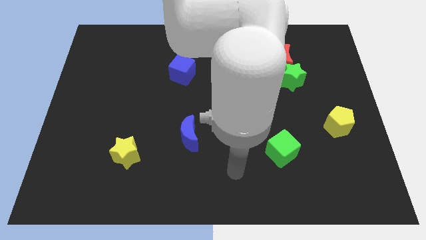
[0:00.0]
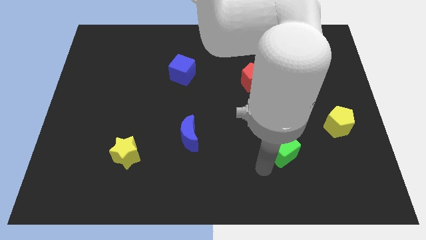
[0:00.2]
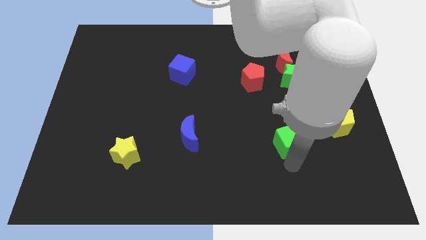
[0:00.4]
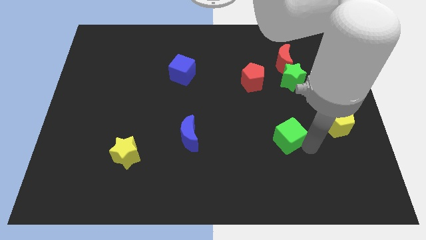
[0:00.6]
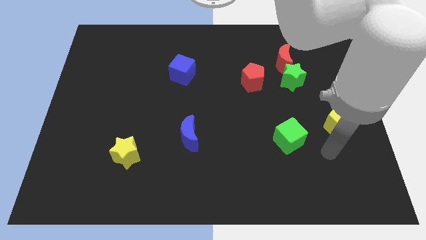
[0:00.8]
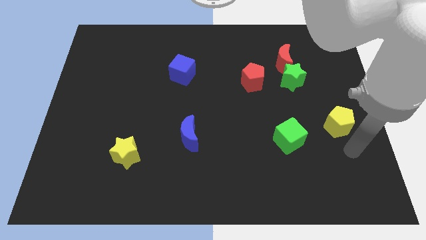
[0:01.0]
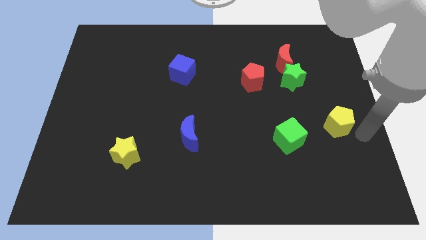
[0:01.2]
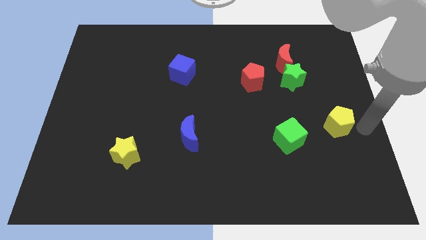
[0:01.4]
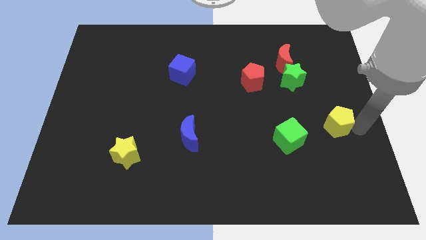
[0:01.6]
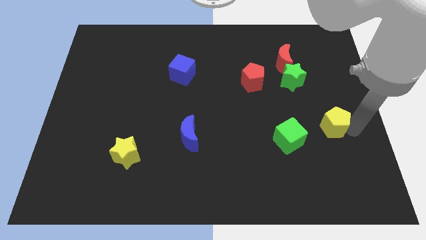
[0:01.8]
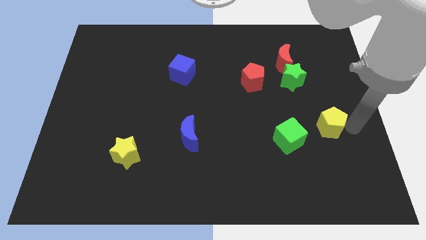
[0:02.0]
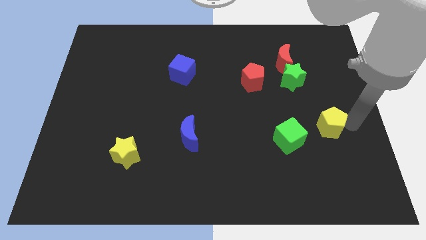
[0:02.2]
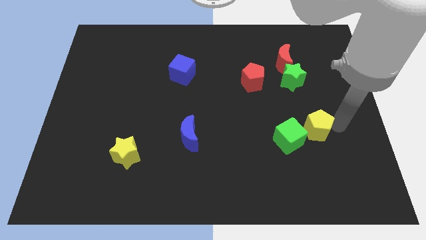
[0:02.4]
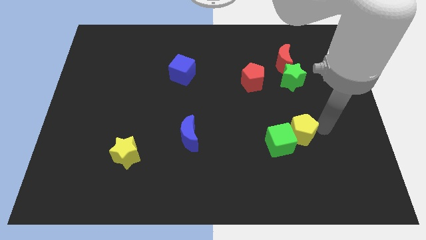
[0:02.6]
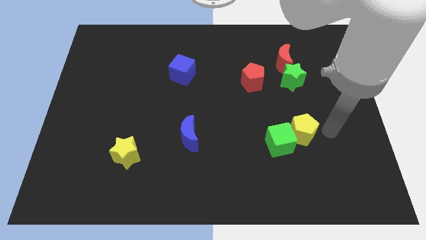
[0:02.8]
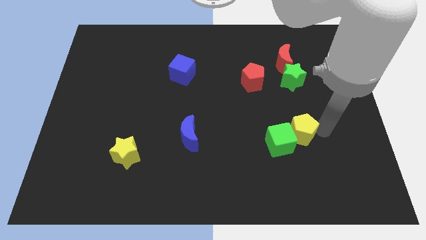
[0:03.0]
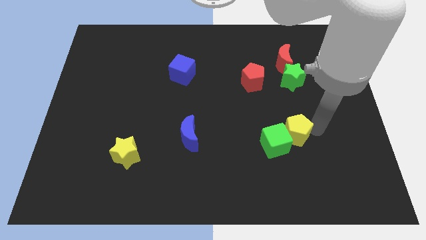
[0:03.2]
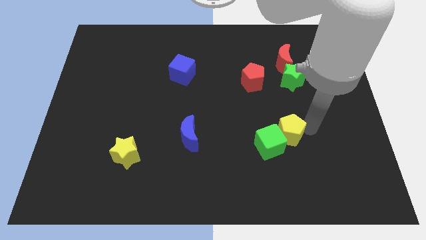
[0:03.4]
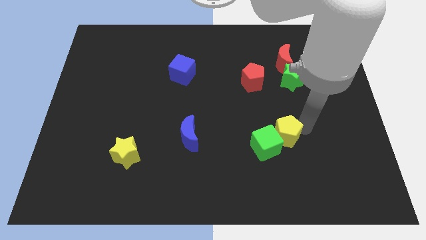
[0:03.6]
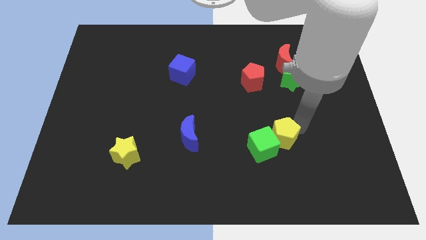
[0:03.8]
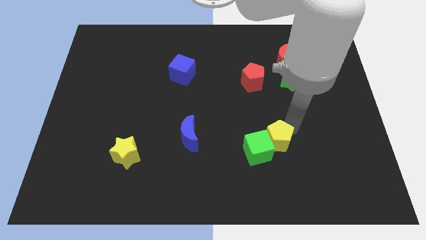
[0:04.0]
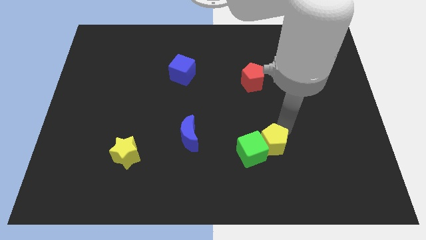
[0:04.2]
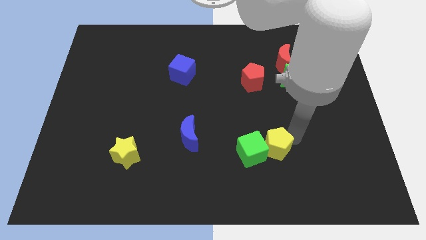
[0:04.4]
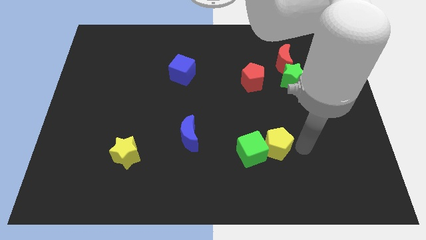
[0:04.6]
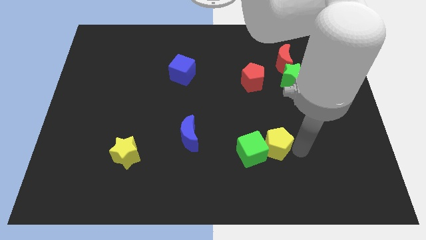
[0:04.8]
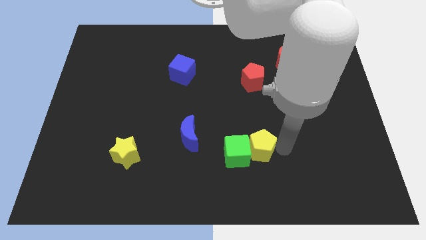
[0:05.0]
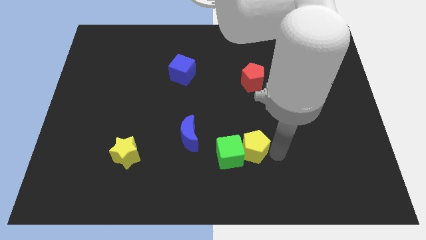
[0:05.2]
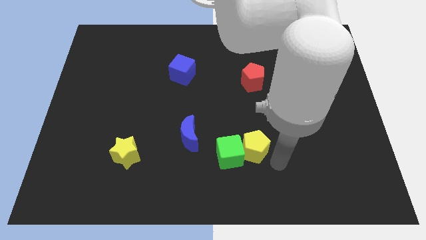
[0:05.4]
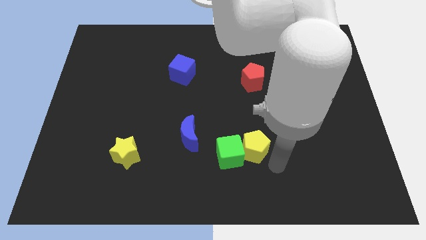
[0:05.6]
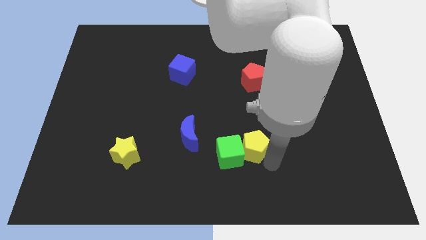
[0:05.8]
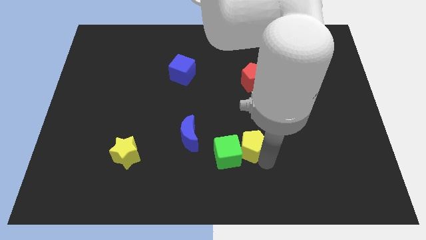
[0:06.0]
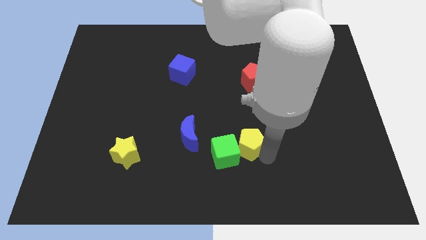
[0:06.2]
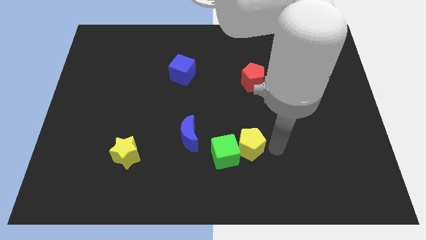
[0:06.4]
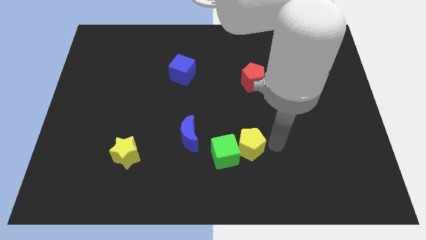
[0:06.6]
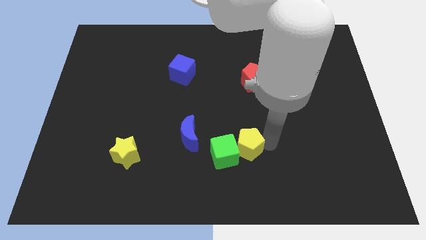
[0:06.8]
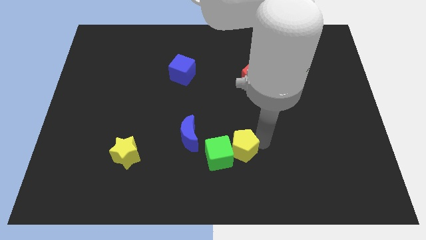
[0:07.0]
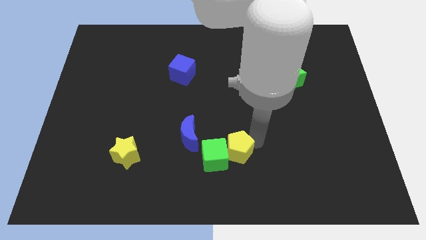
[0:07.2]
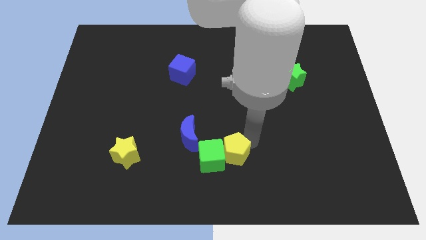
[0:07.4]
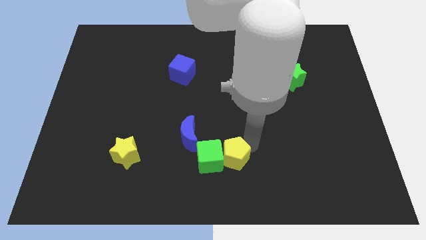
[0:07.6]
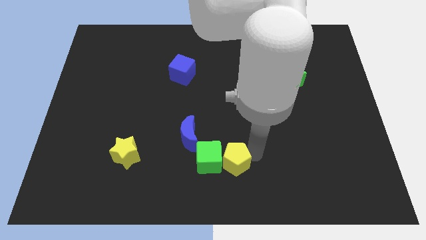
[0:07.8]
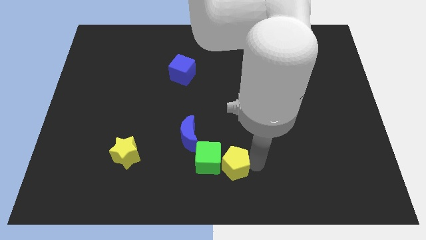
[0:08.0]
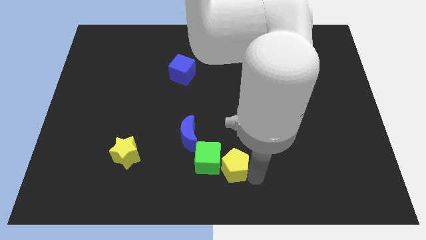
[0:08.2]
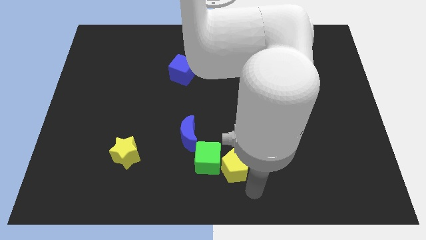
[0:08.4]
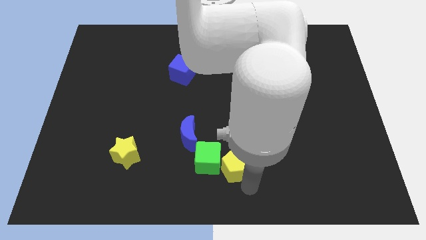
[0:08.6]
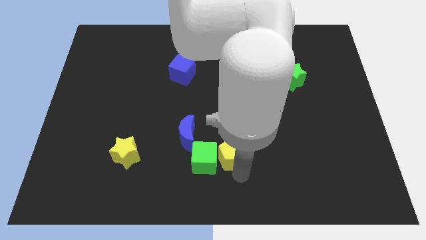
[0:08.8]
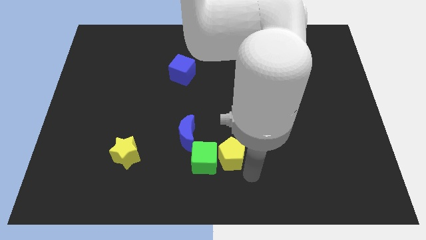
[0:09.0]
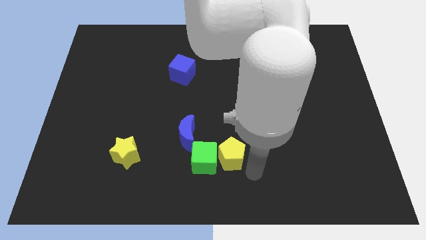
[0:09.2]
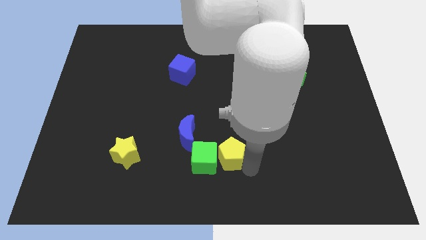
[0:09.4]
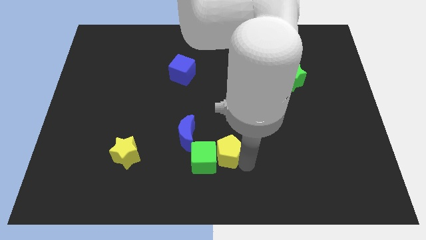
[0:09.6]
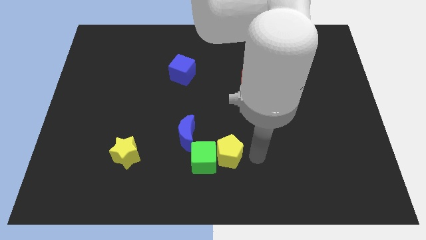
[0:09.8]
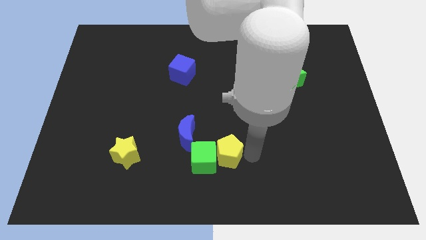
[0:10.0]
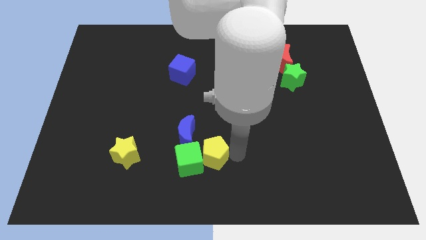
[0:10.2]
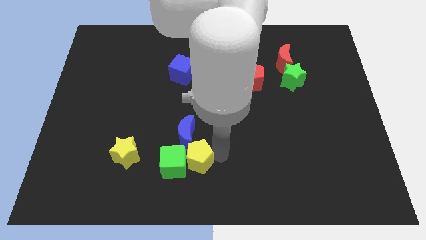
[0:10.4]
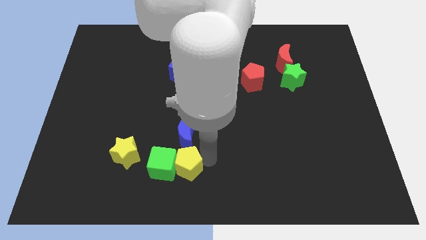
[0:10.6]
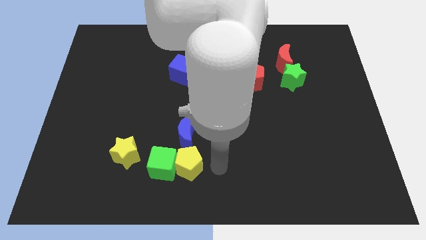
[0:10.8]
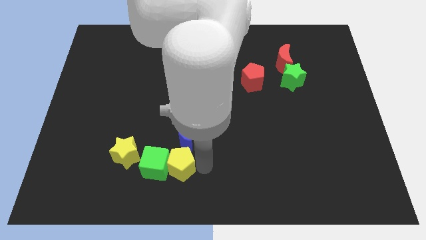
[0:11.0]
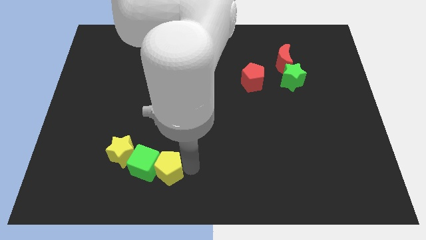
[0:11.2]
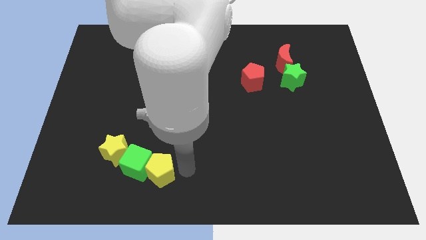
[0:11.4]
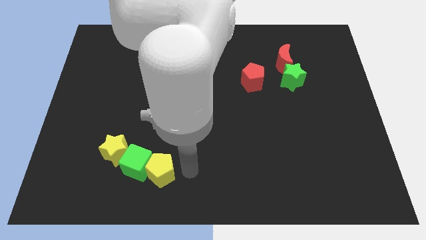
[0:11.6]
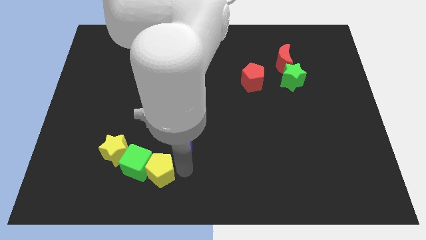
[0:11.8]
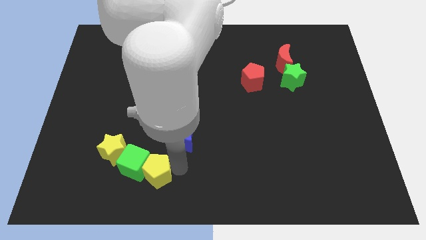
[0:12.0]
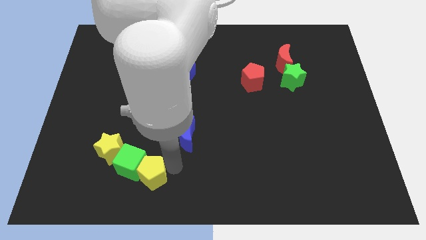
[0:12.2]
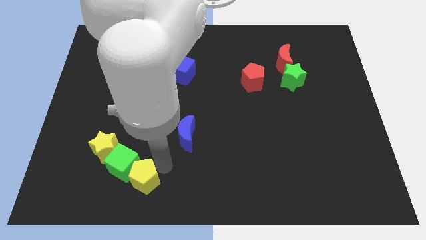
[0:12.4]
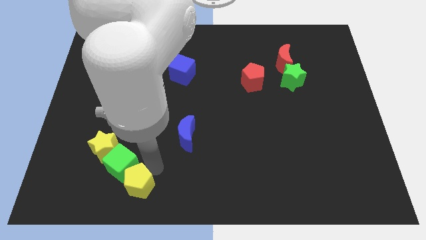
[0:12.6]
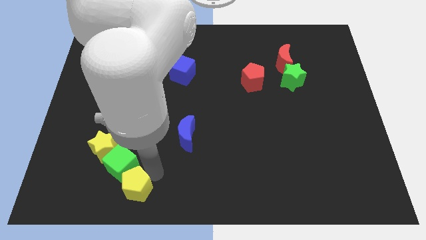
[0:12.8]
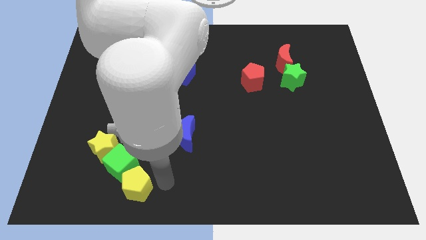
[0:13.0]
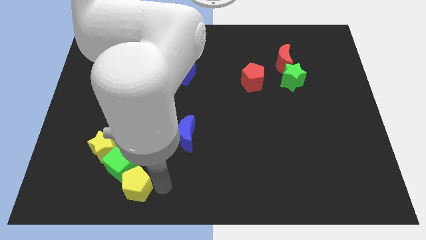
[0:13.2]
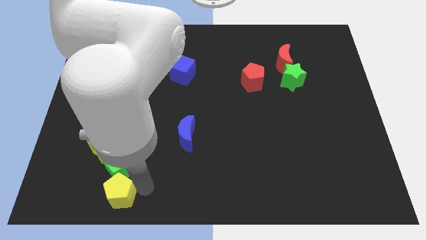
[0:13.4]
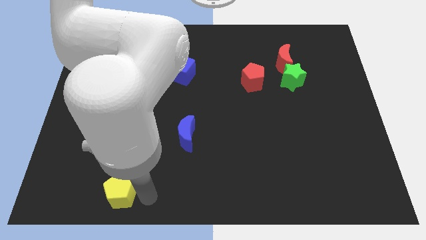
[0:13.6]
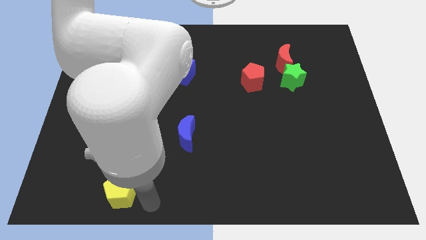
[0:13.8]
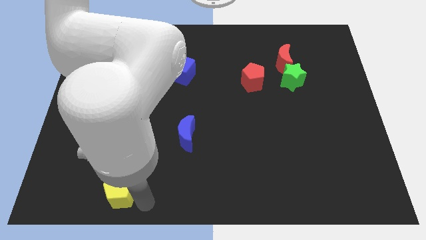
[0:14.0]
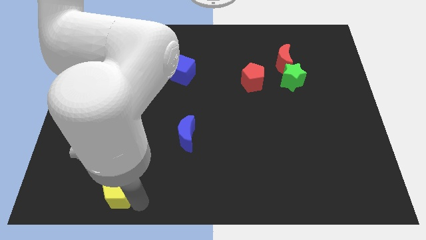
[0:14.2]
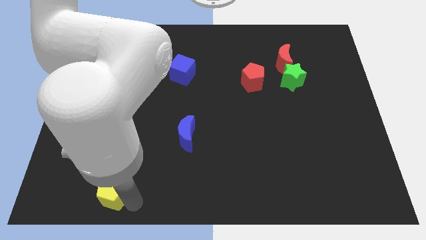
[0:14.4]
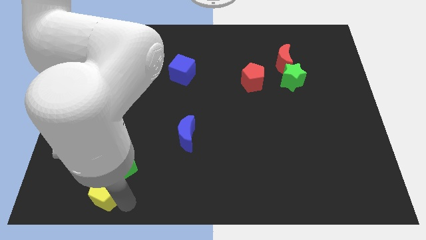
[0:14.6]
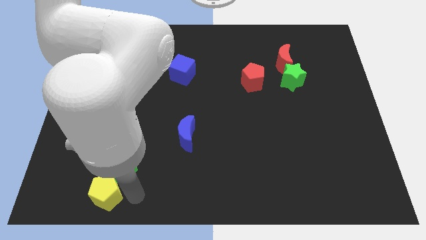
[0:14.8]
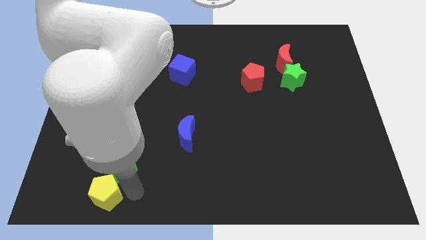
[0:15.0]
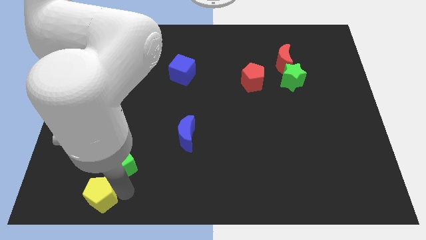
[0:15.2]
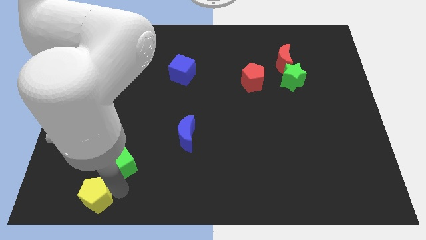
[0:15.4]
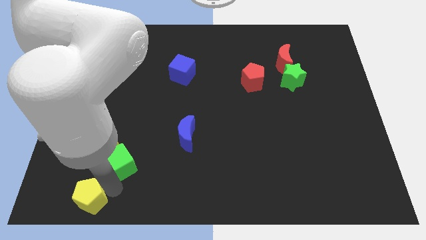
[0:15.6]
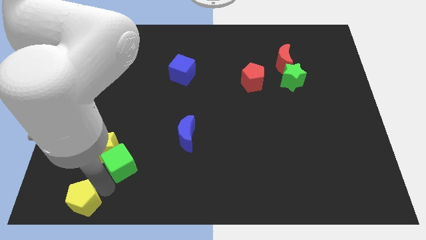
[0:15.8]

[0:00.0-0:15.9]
put the yellow pentagon to the bottom left
